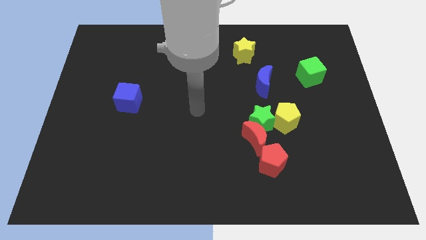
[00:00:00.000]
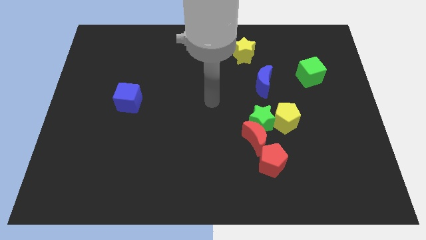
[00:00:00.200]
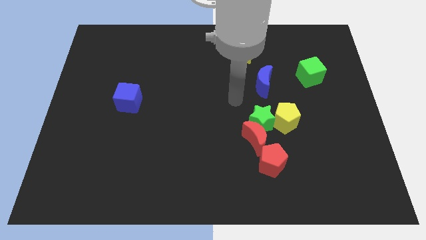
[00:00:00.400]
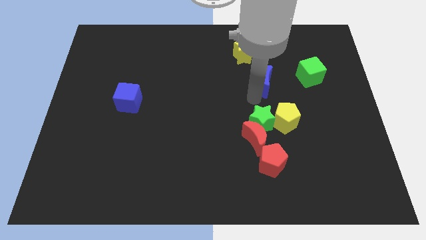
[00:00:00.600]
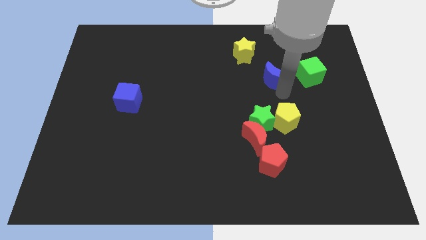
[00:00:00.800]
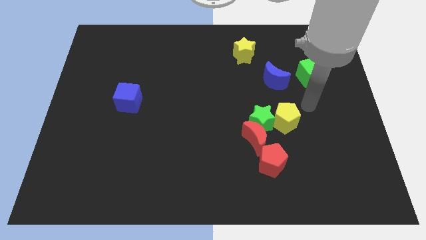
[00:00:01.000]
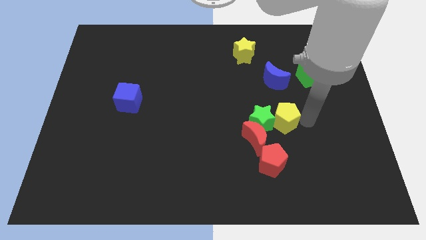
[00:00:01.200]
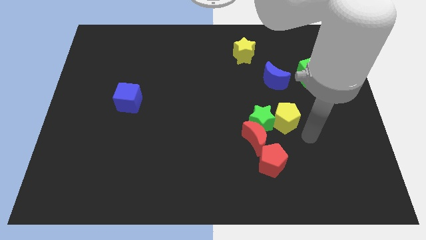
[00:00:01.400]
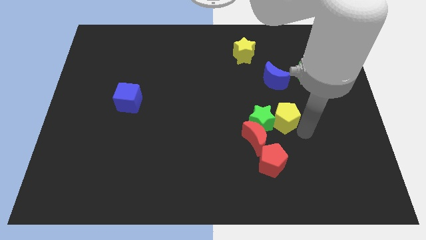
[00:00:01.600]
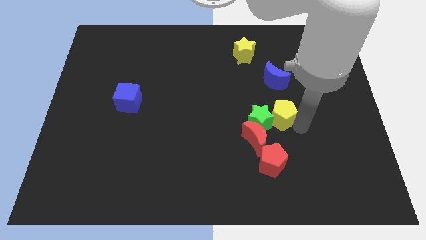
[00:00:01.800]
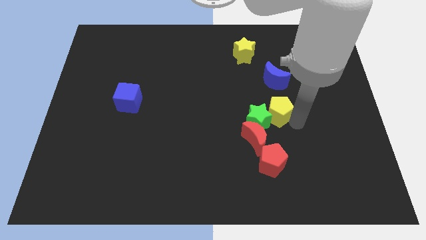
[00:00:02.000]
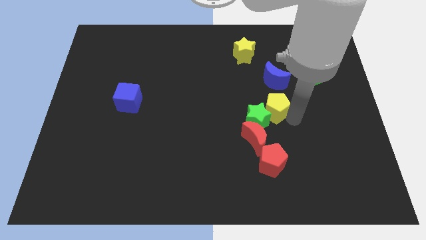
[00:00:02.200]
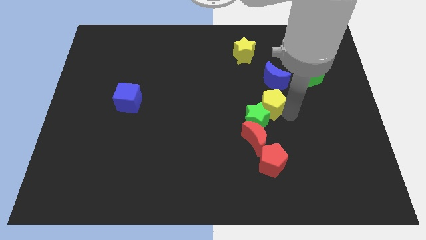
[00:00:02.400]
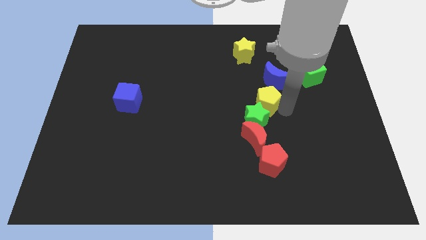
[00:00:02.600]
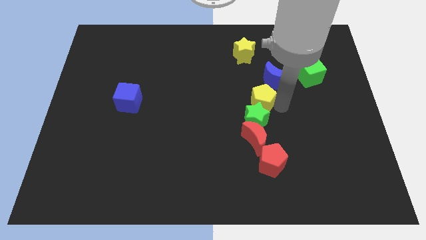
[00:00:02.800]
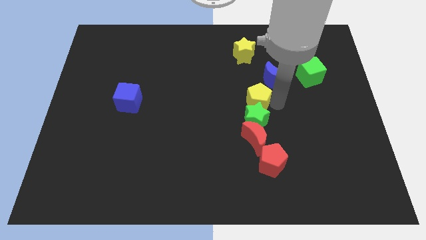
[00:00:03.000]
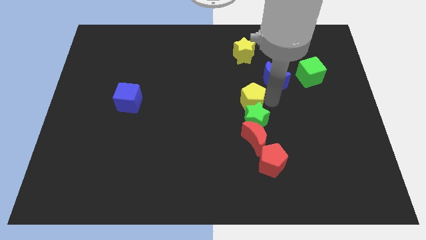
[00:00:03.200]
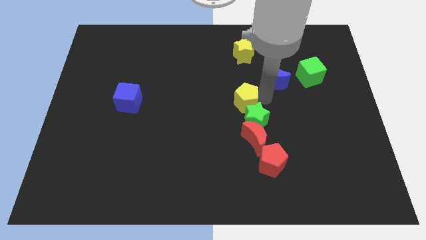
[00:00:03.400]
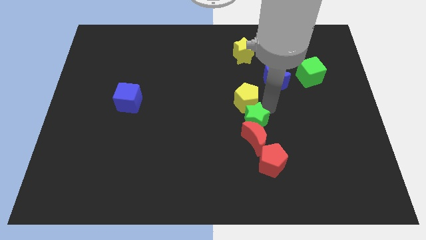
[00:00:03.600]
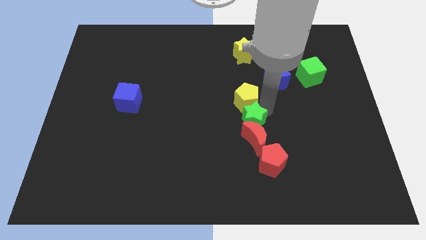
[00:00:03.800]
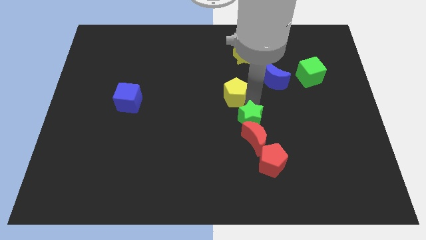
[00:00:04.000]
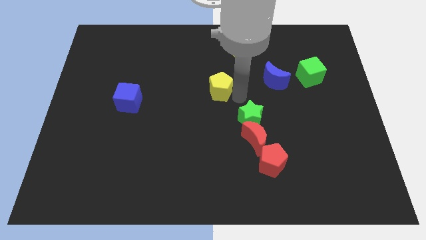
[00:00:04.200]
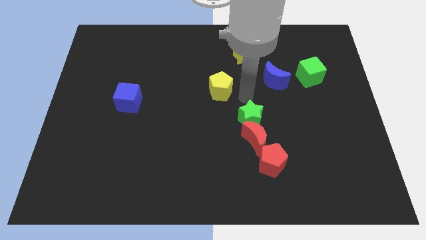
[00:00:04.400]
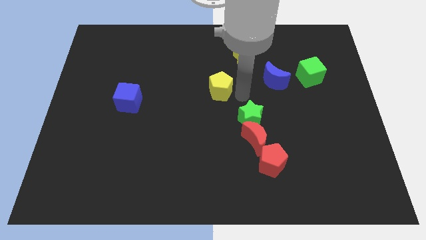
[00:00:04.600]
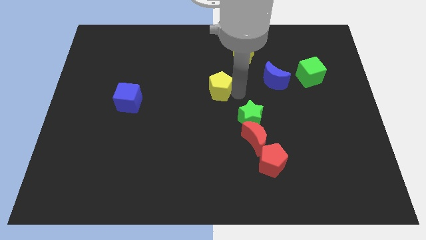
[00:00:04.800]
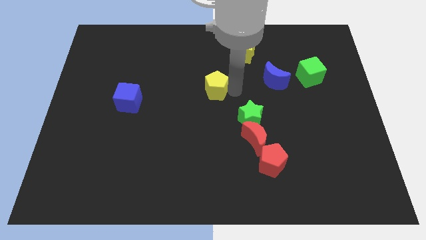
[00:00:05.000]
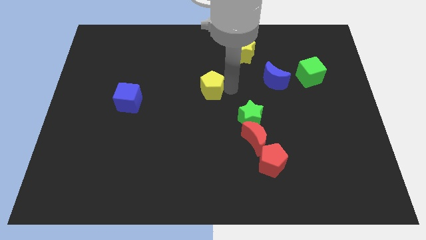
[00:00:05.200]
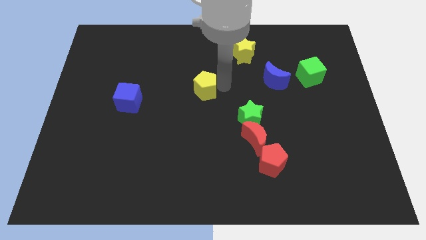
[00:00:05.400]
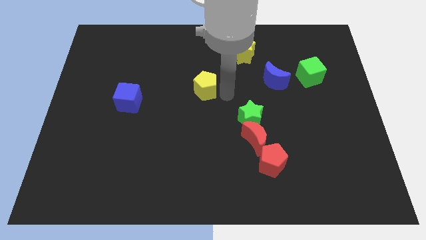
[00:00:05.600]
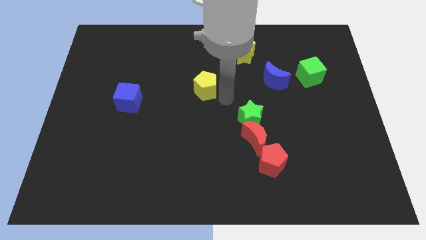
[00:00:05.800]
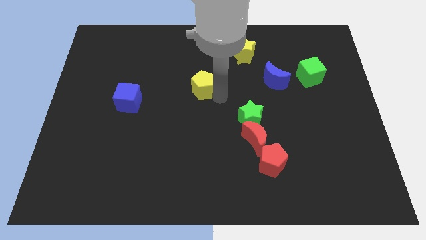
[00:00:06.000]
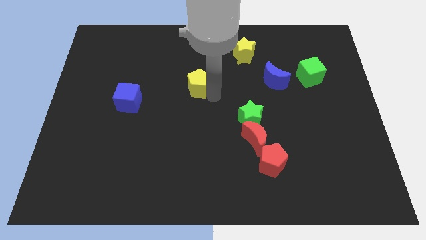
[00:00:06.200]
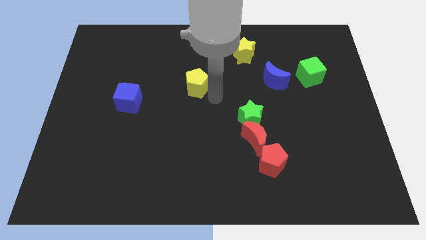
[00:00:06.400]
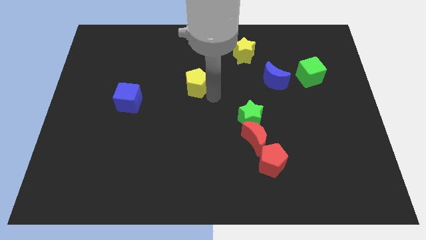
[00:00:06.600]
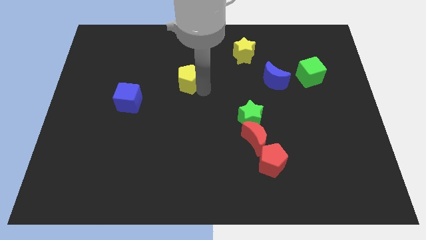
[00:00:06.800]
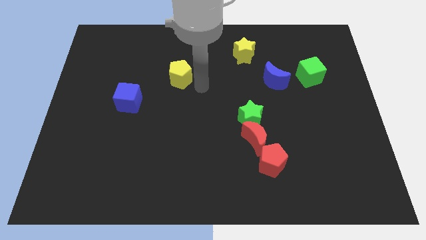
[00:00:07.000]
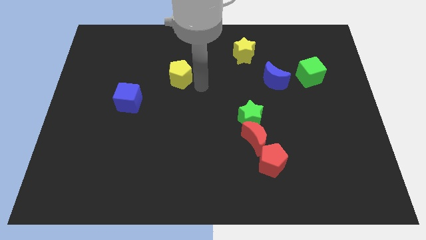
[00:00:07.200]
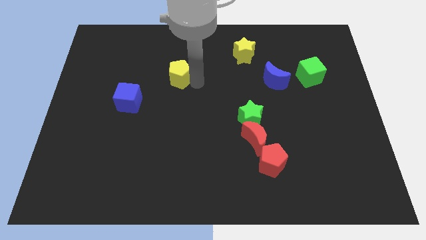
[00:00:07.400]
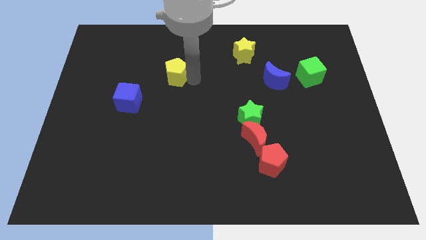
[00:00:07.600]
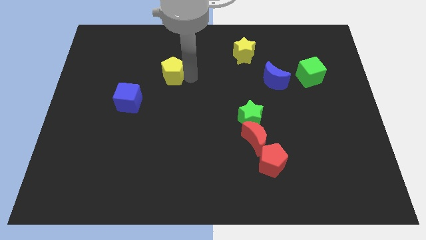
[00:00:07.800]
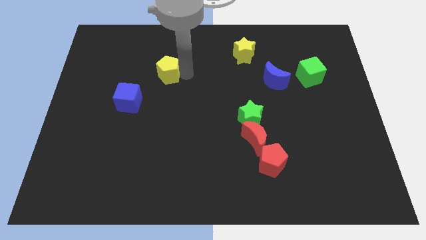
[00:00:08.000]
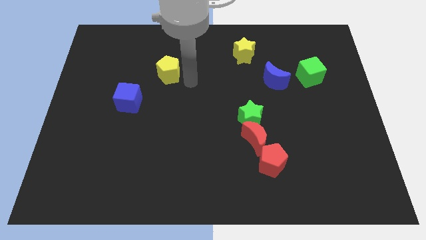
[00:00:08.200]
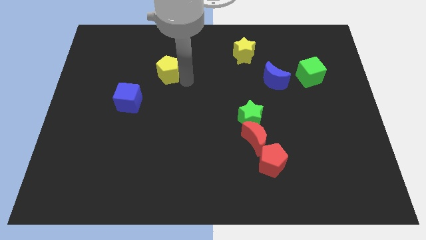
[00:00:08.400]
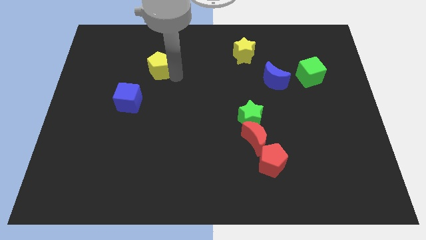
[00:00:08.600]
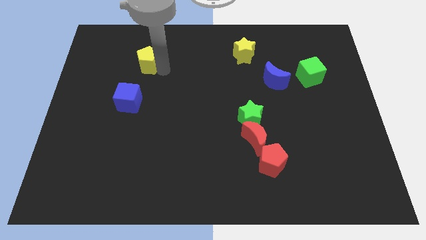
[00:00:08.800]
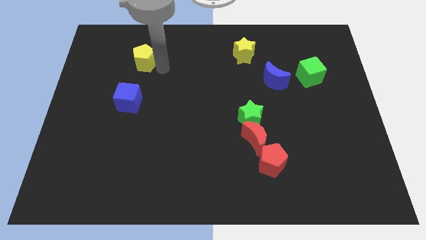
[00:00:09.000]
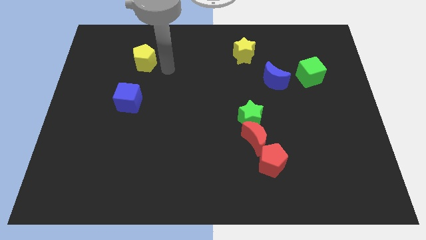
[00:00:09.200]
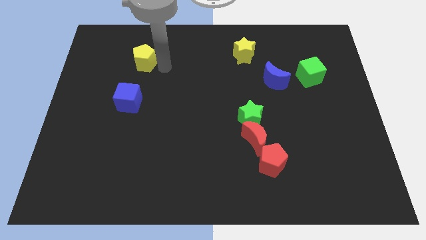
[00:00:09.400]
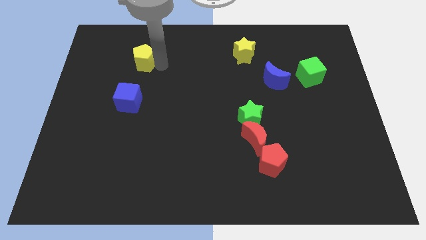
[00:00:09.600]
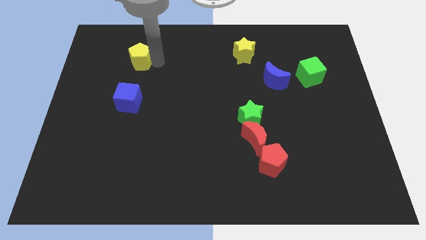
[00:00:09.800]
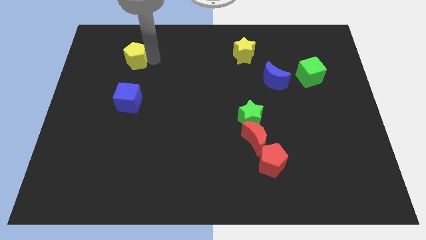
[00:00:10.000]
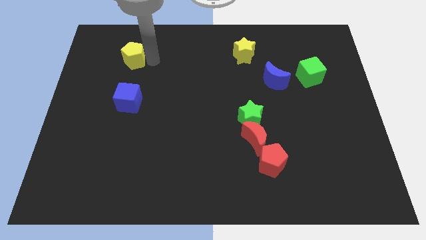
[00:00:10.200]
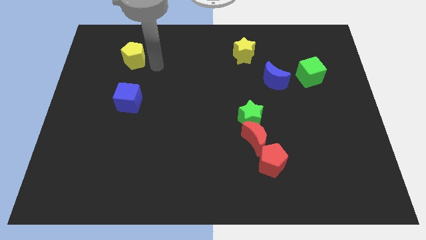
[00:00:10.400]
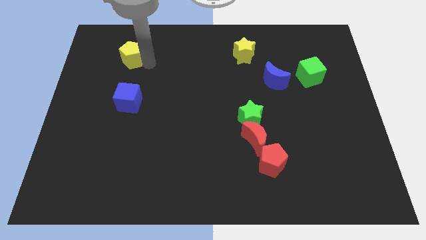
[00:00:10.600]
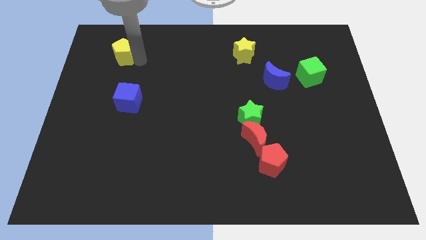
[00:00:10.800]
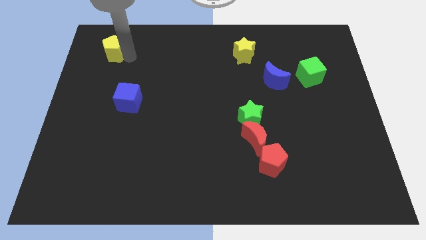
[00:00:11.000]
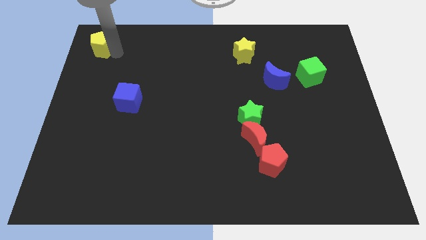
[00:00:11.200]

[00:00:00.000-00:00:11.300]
move the yellow pentagon to the upper left corner
